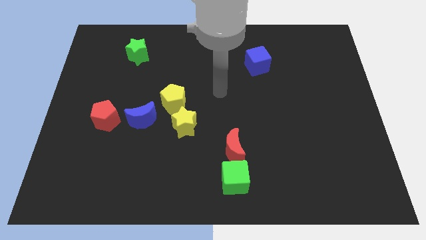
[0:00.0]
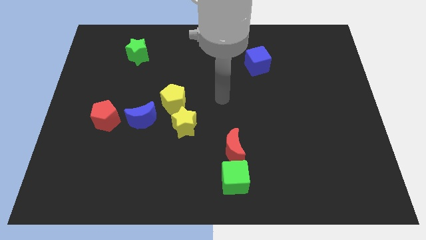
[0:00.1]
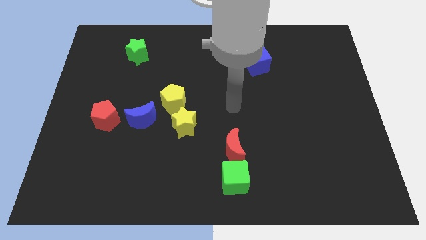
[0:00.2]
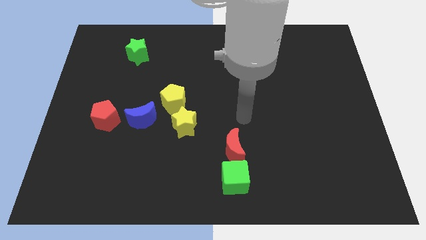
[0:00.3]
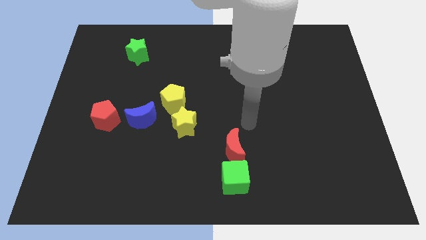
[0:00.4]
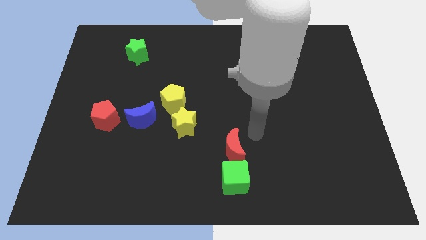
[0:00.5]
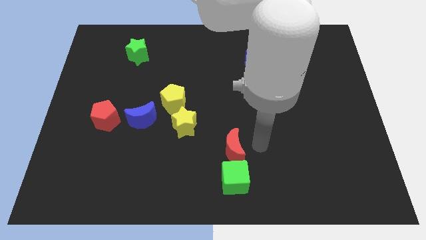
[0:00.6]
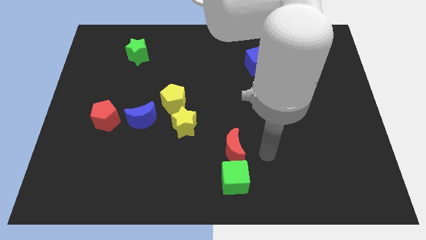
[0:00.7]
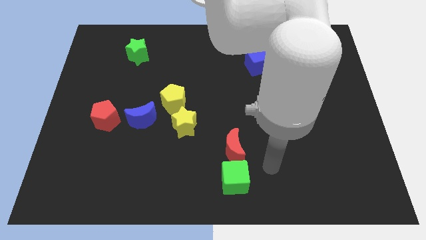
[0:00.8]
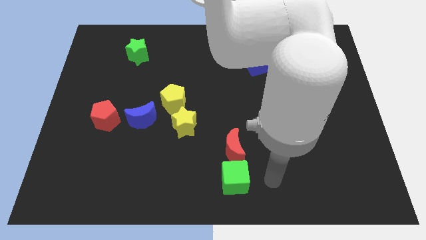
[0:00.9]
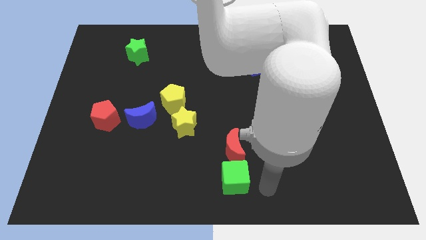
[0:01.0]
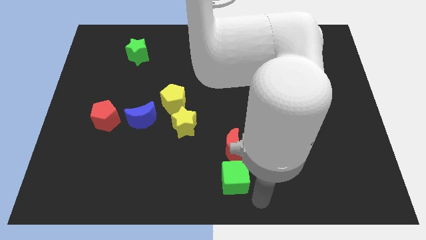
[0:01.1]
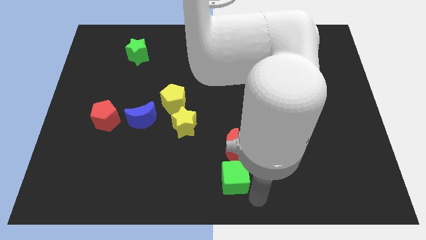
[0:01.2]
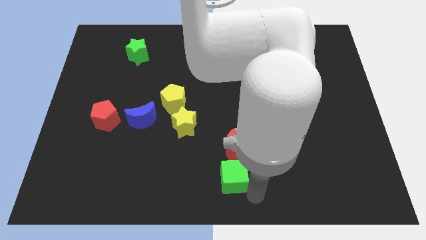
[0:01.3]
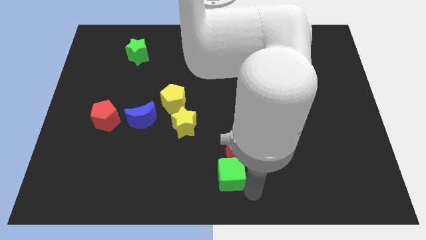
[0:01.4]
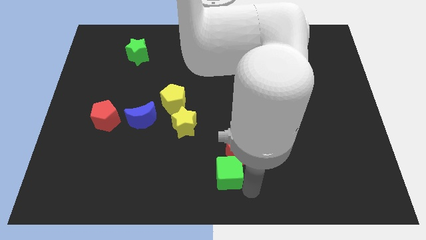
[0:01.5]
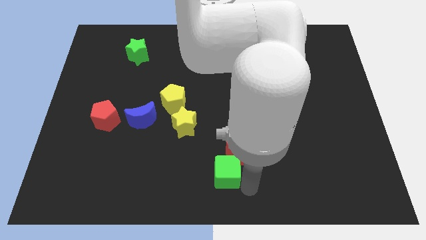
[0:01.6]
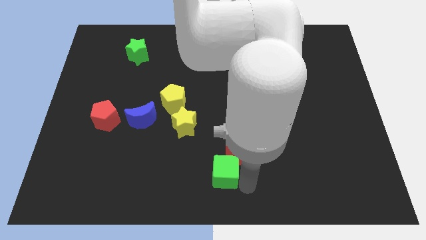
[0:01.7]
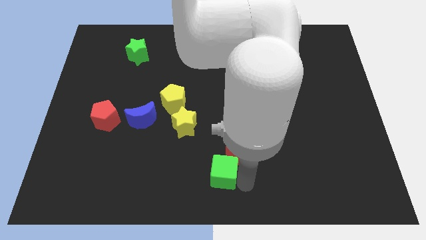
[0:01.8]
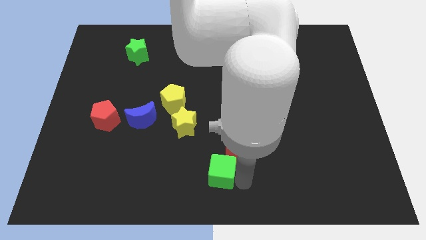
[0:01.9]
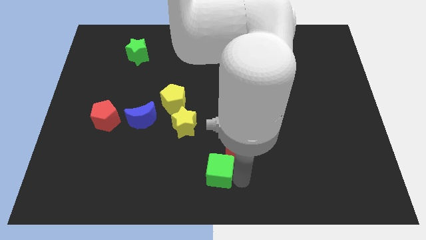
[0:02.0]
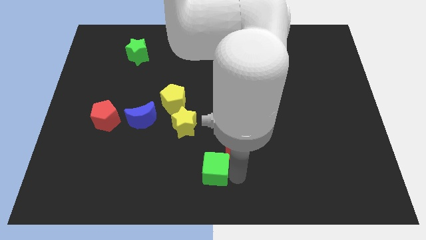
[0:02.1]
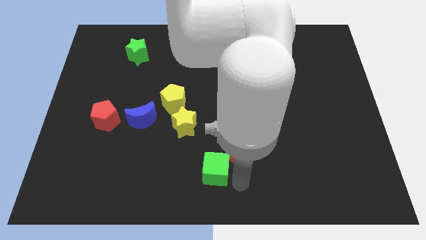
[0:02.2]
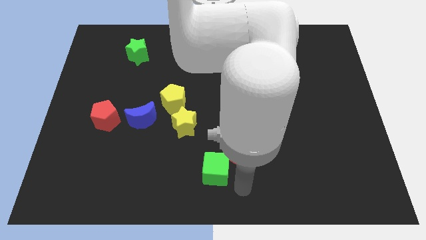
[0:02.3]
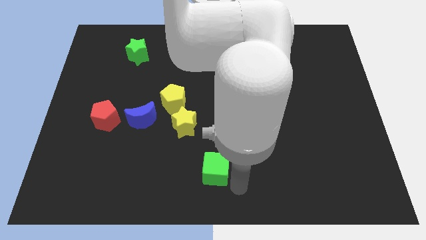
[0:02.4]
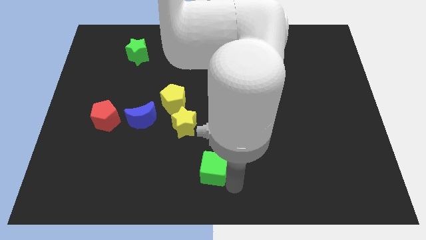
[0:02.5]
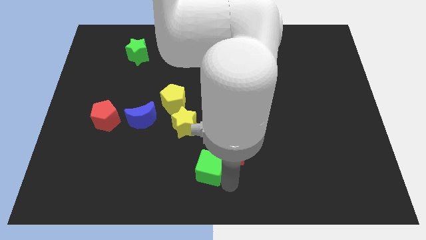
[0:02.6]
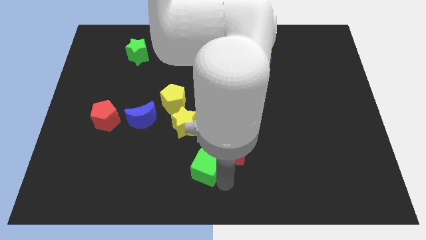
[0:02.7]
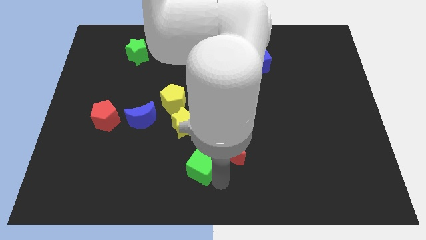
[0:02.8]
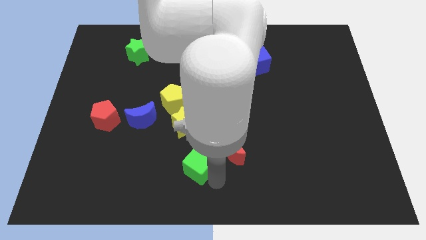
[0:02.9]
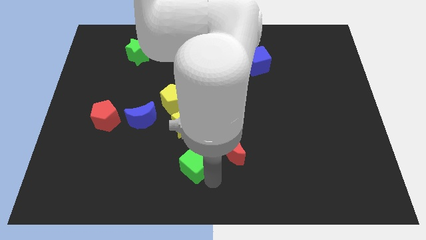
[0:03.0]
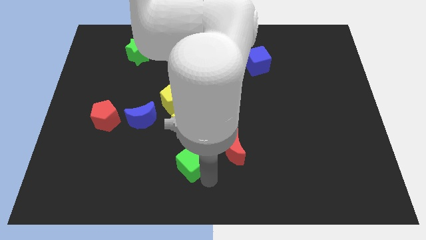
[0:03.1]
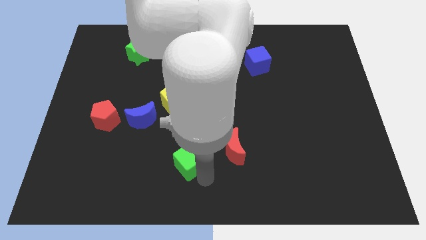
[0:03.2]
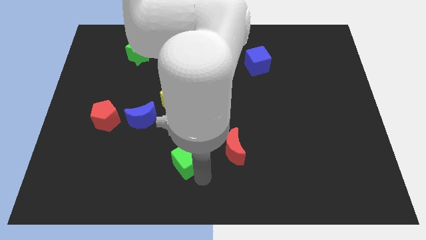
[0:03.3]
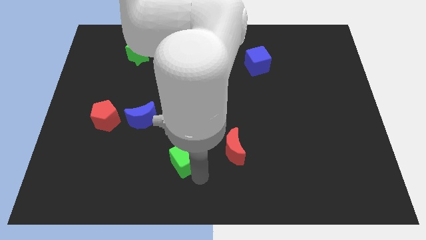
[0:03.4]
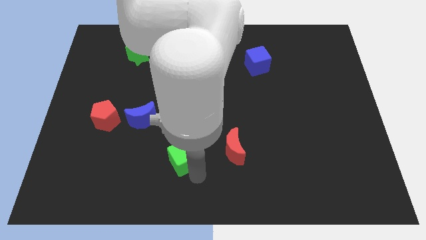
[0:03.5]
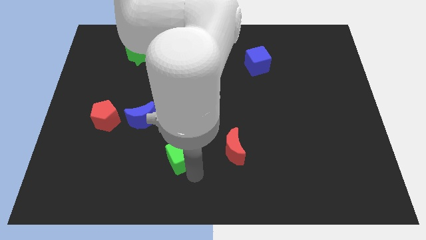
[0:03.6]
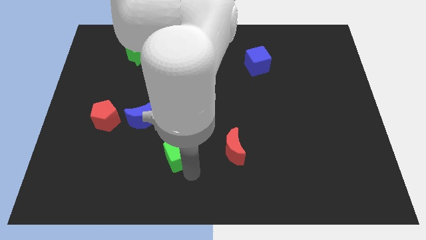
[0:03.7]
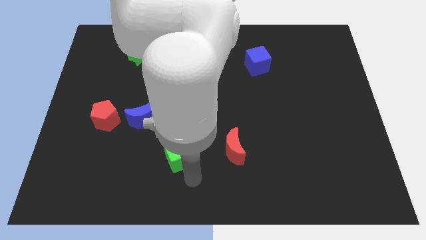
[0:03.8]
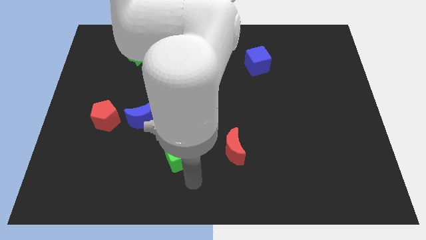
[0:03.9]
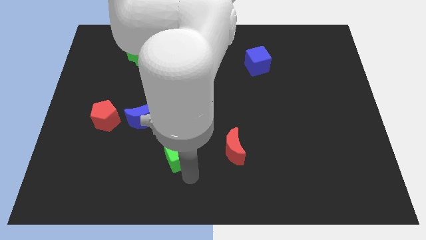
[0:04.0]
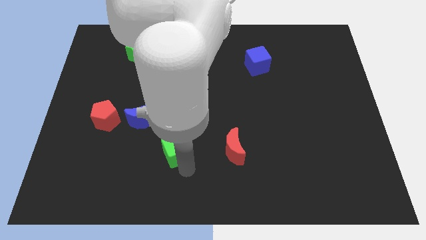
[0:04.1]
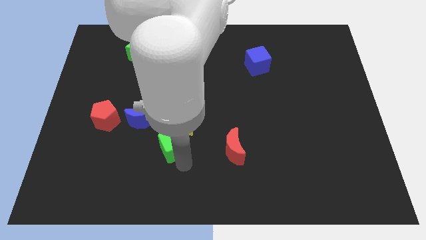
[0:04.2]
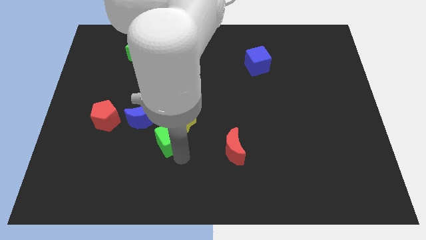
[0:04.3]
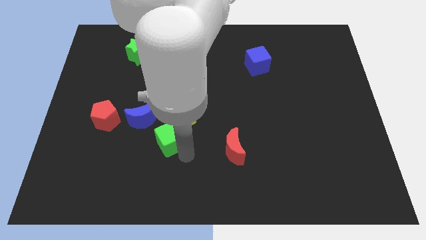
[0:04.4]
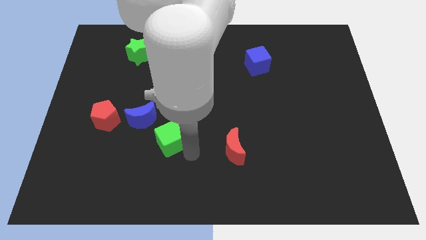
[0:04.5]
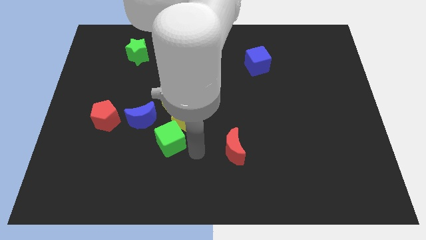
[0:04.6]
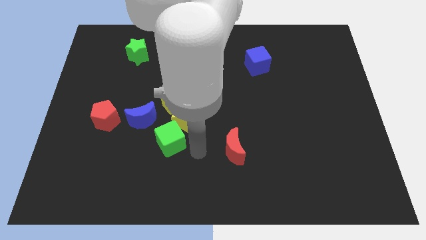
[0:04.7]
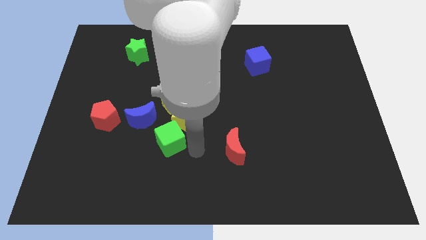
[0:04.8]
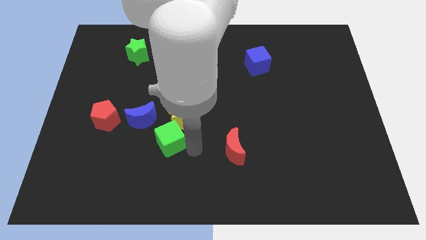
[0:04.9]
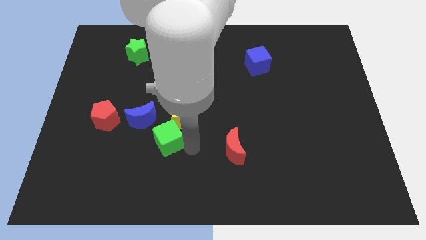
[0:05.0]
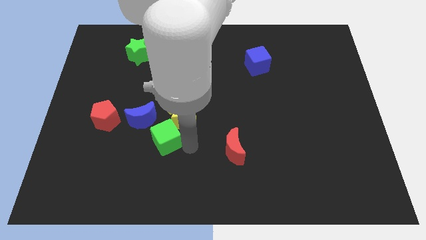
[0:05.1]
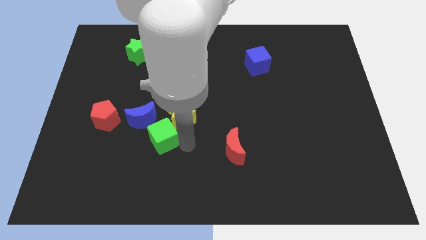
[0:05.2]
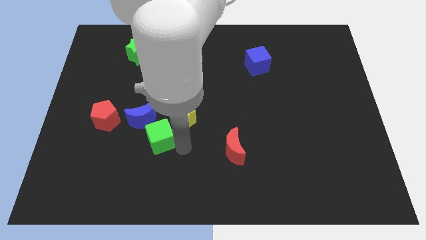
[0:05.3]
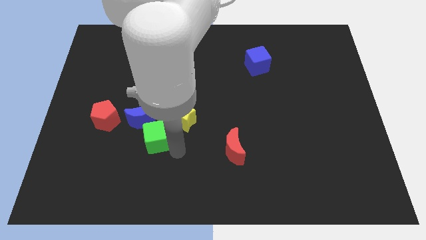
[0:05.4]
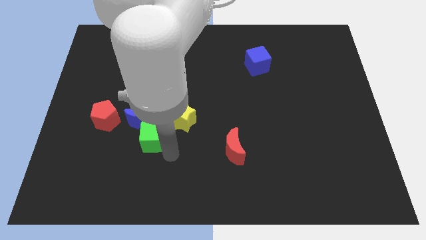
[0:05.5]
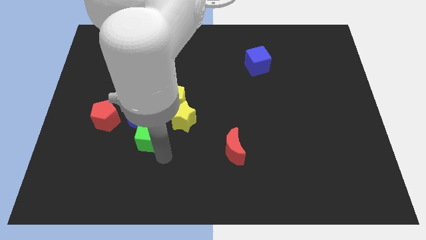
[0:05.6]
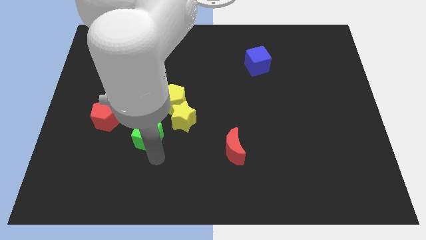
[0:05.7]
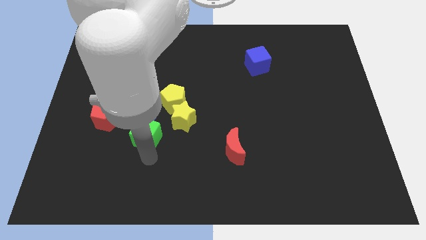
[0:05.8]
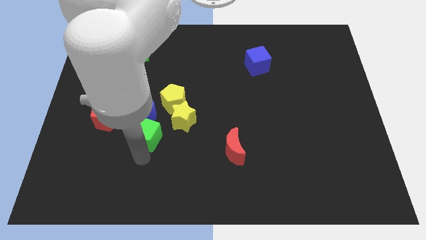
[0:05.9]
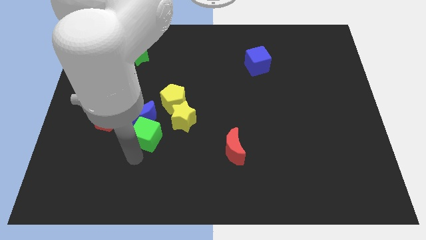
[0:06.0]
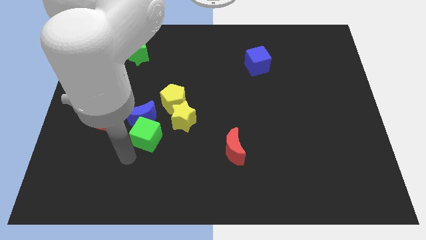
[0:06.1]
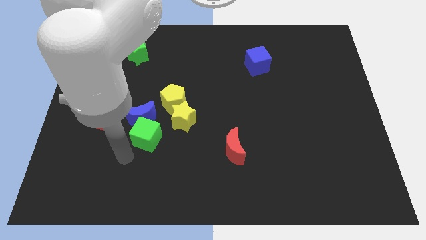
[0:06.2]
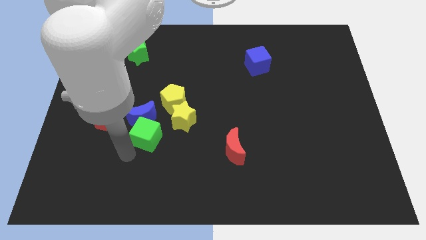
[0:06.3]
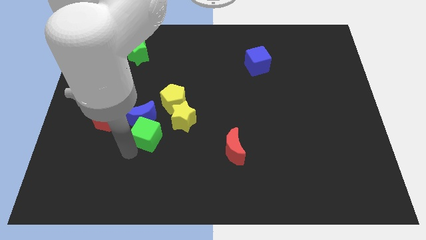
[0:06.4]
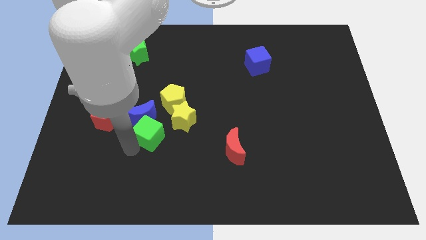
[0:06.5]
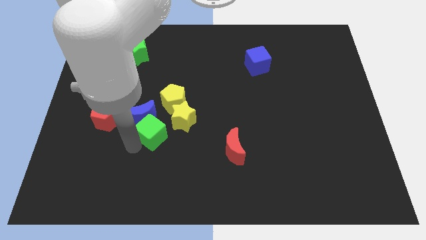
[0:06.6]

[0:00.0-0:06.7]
push the green cube up and then to the left

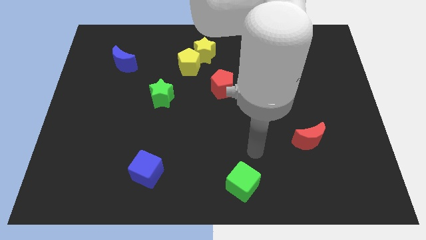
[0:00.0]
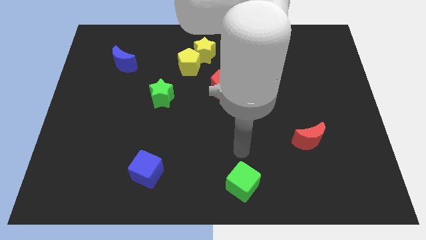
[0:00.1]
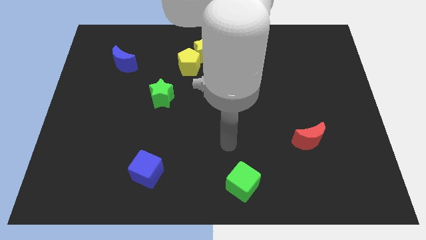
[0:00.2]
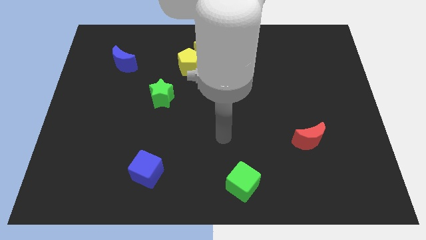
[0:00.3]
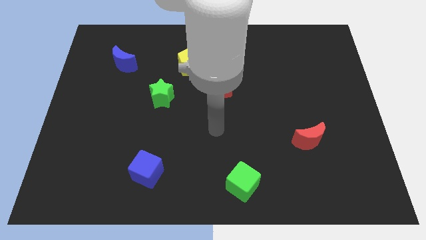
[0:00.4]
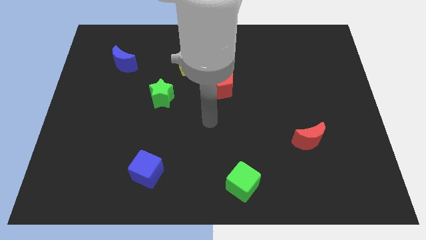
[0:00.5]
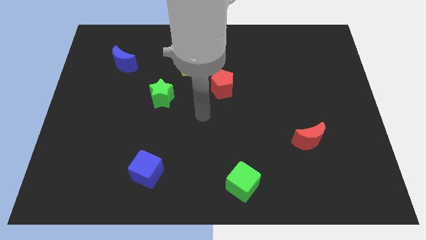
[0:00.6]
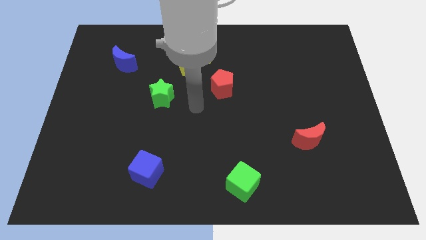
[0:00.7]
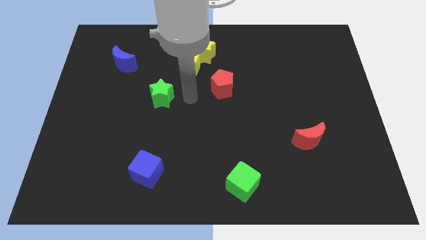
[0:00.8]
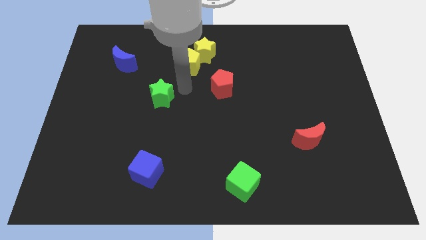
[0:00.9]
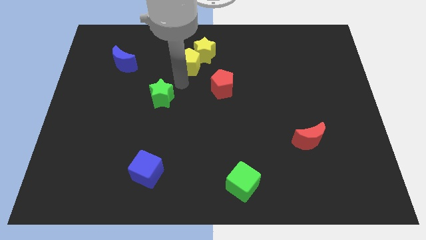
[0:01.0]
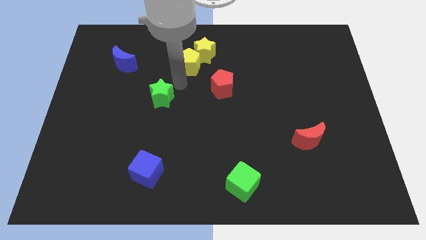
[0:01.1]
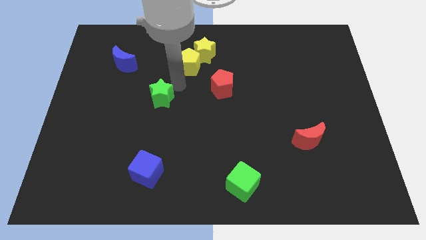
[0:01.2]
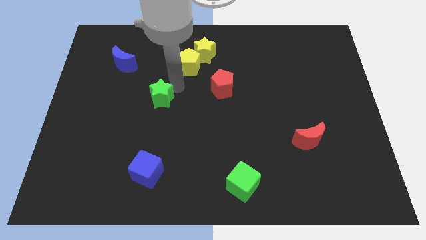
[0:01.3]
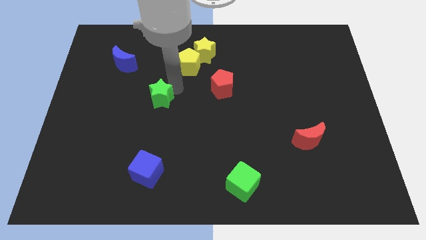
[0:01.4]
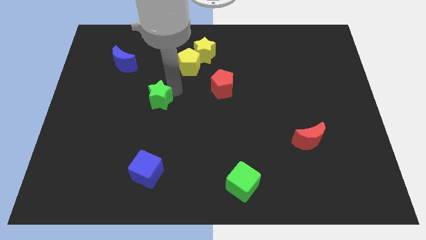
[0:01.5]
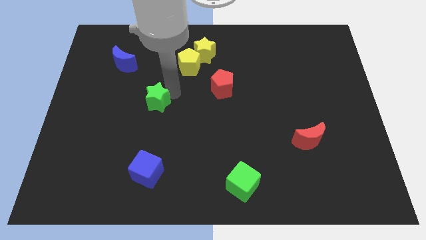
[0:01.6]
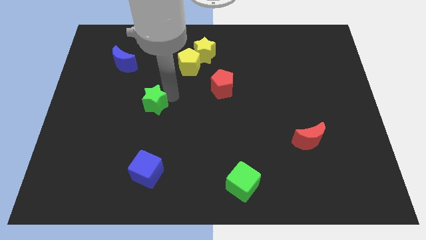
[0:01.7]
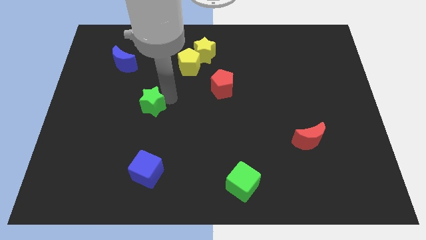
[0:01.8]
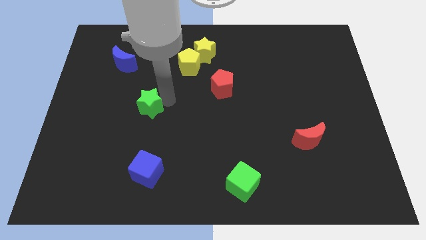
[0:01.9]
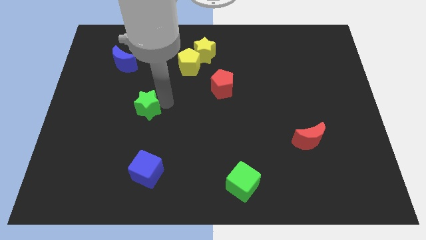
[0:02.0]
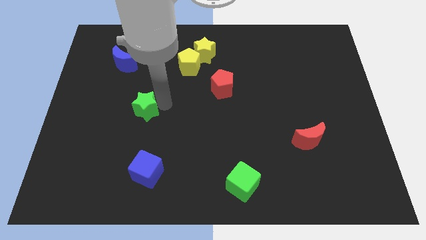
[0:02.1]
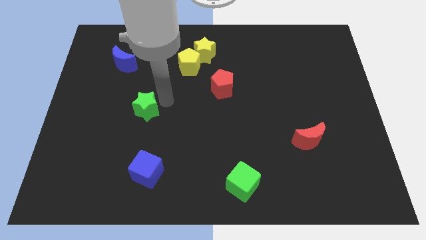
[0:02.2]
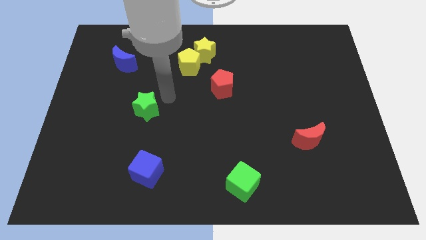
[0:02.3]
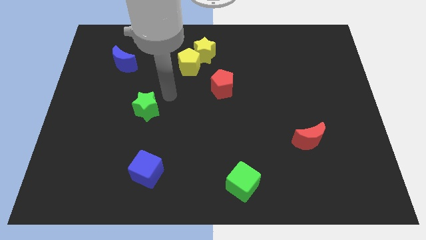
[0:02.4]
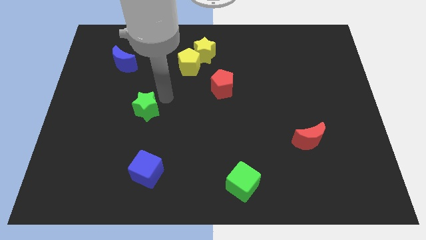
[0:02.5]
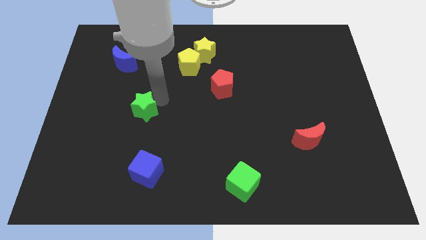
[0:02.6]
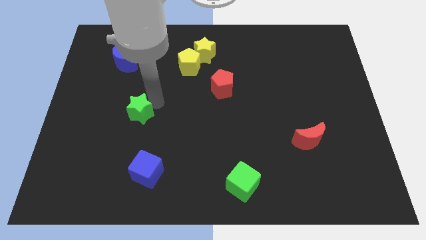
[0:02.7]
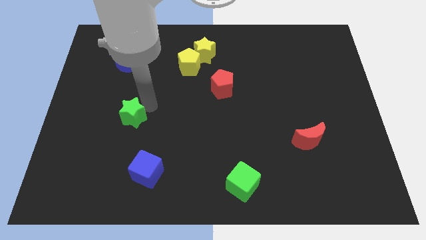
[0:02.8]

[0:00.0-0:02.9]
slide the green star downwards and left diagonally a little bit
